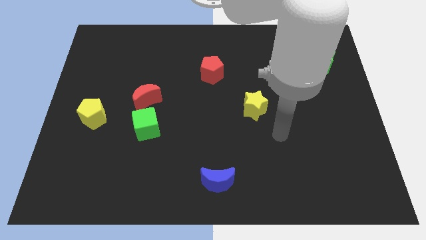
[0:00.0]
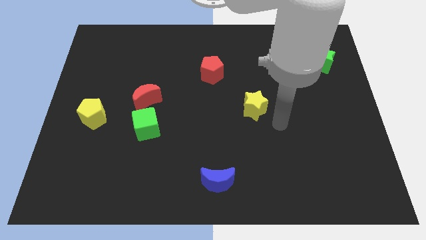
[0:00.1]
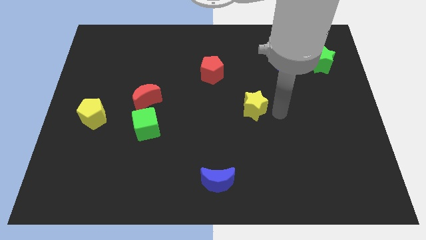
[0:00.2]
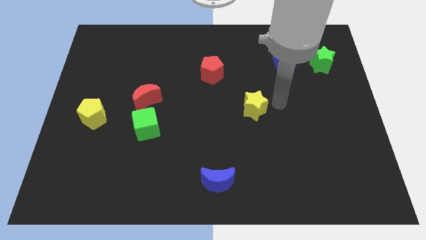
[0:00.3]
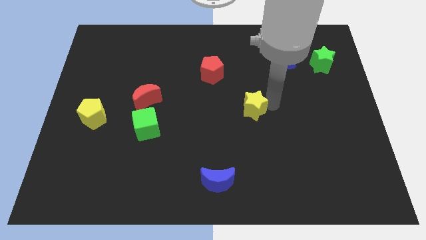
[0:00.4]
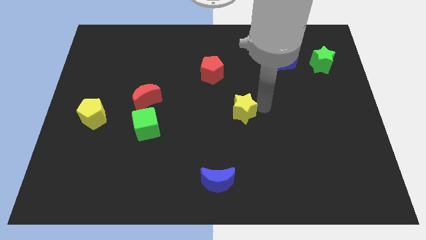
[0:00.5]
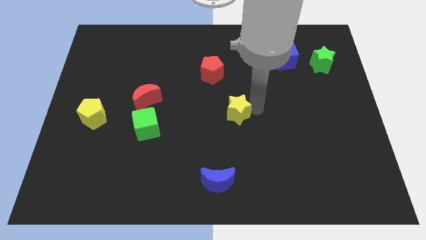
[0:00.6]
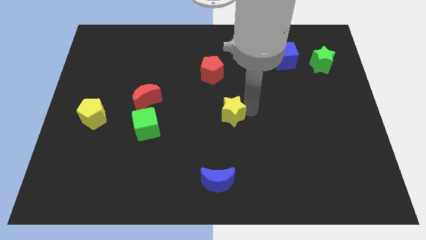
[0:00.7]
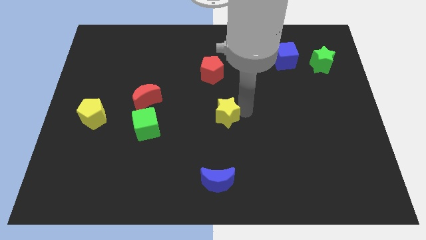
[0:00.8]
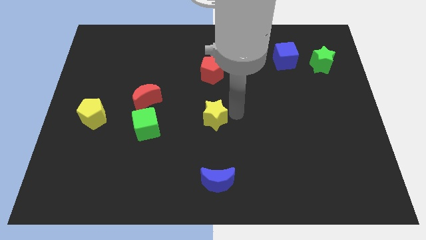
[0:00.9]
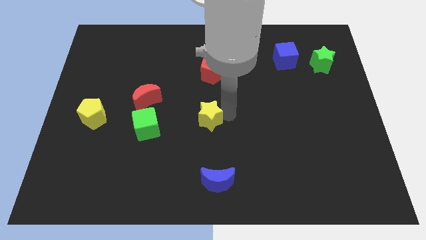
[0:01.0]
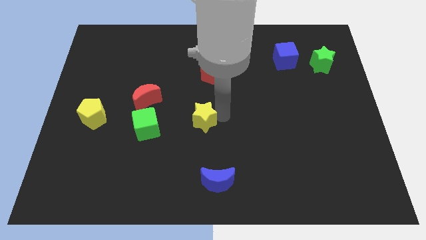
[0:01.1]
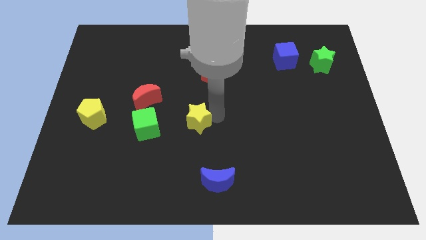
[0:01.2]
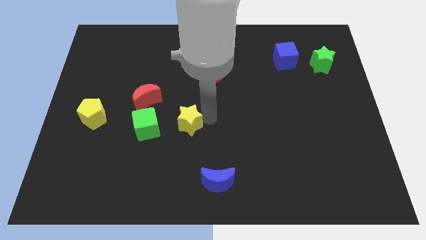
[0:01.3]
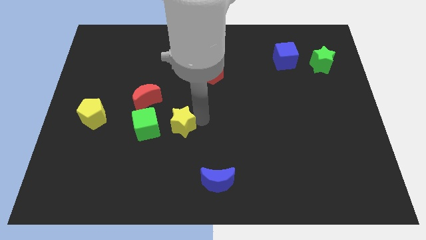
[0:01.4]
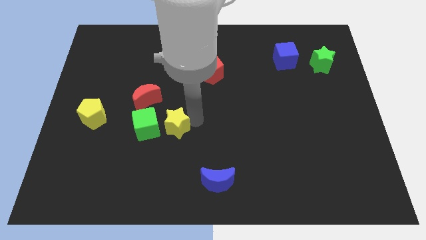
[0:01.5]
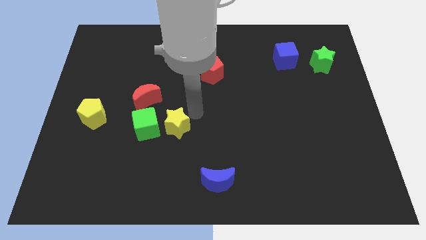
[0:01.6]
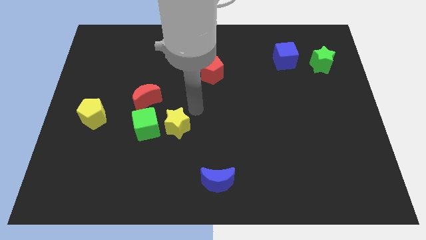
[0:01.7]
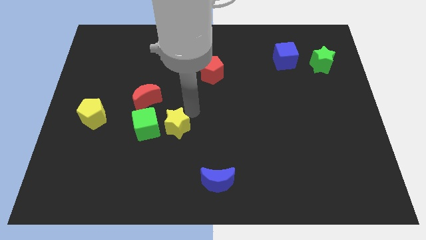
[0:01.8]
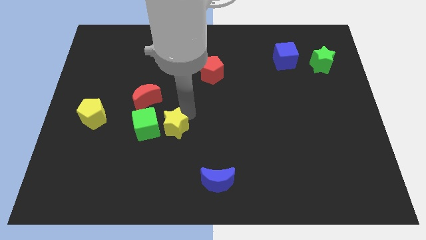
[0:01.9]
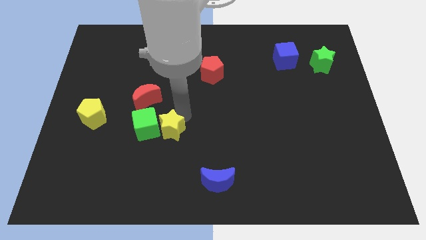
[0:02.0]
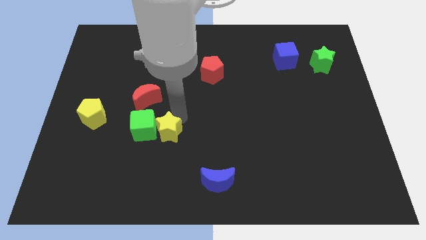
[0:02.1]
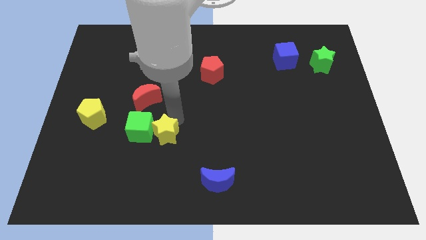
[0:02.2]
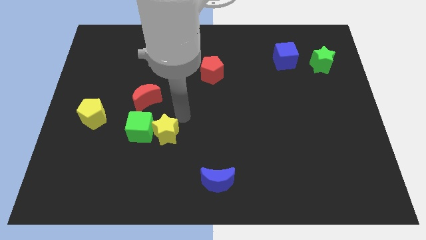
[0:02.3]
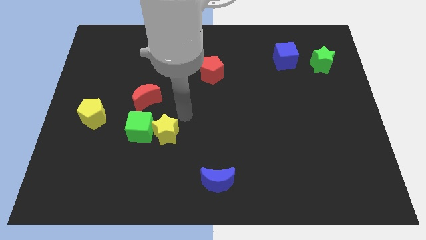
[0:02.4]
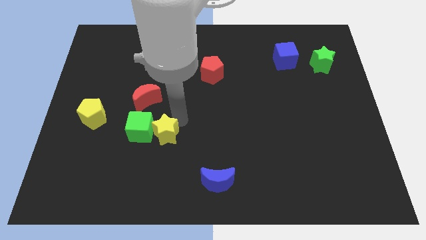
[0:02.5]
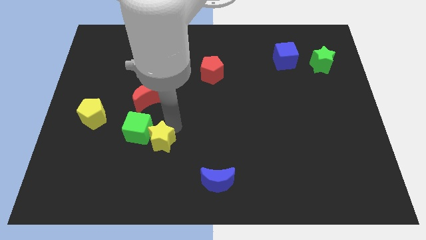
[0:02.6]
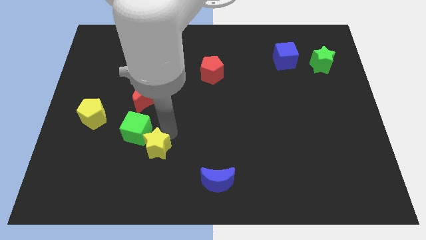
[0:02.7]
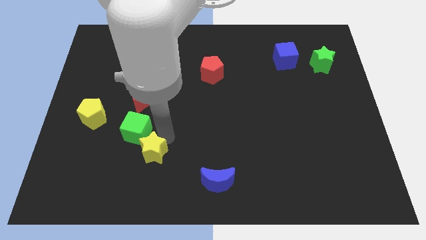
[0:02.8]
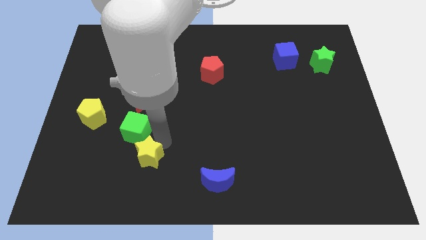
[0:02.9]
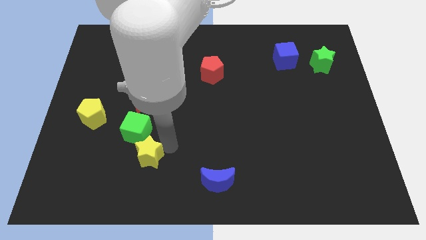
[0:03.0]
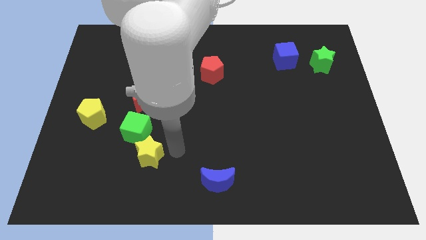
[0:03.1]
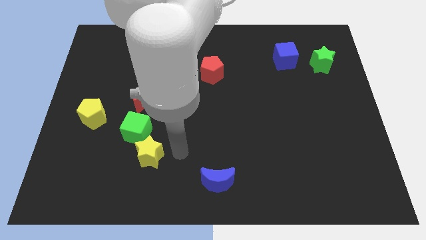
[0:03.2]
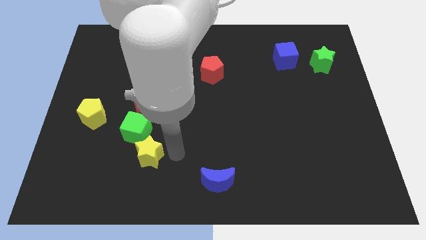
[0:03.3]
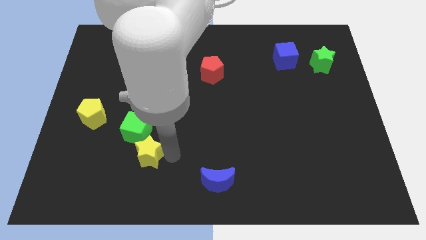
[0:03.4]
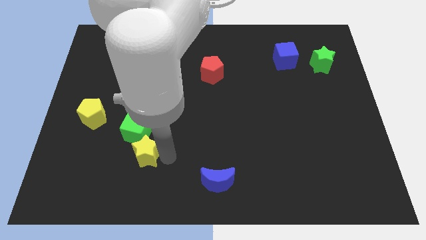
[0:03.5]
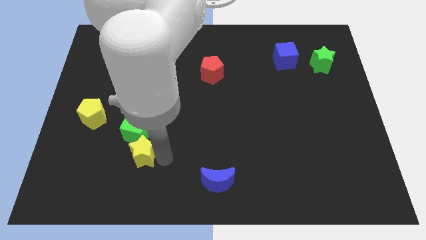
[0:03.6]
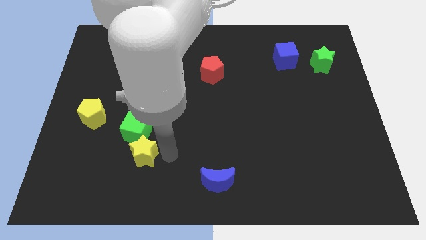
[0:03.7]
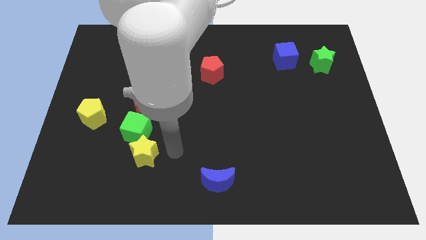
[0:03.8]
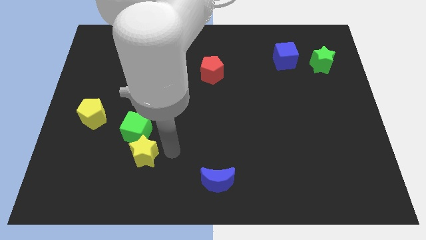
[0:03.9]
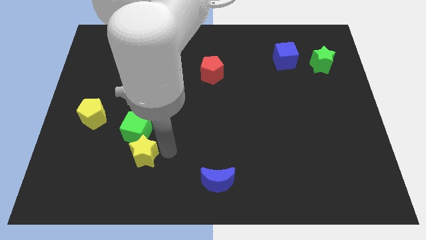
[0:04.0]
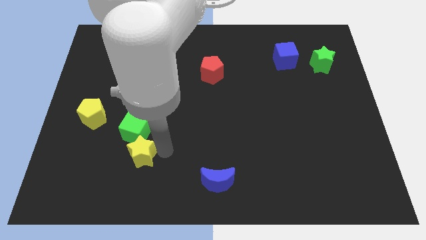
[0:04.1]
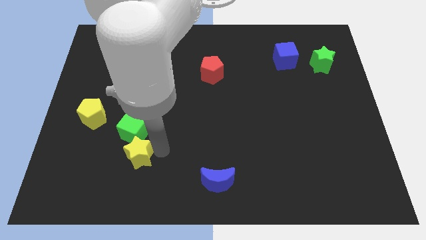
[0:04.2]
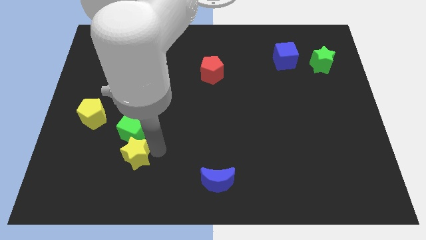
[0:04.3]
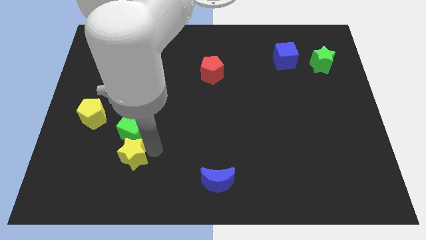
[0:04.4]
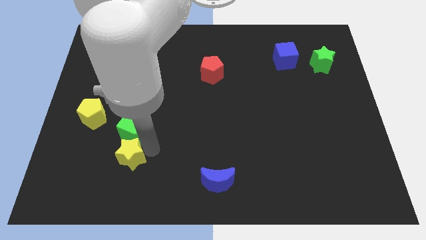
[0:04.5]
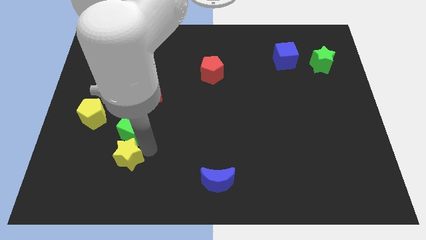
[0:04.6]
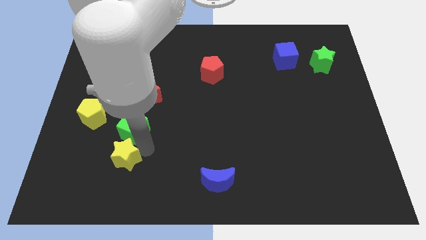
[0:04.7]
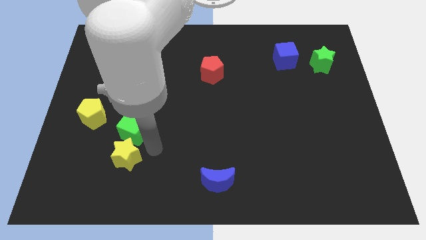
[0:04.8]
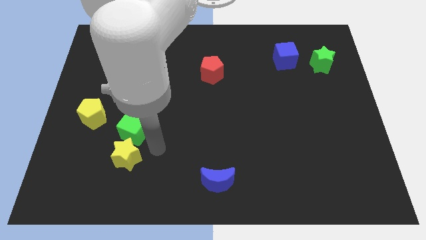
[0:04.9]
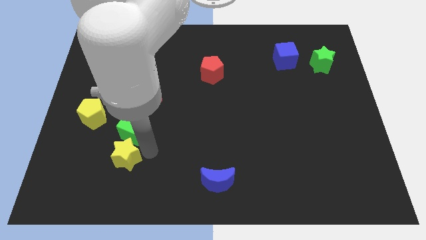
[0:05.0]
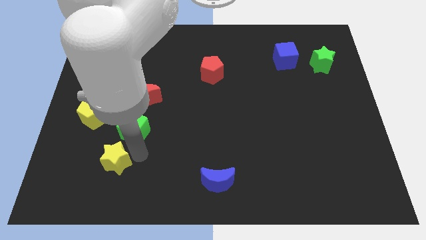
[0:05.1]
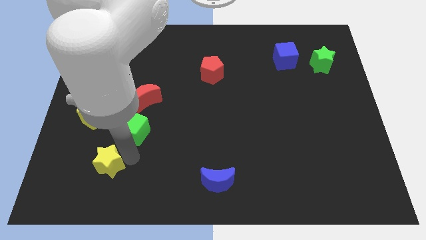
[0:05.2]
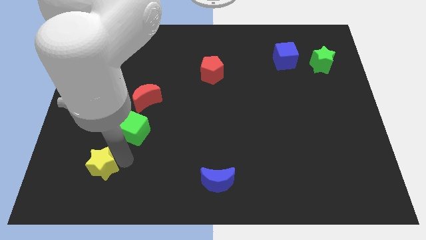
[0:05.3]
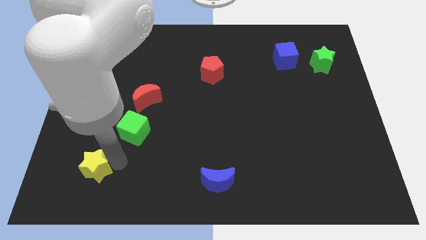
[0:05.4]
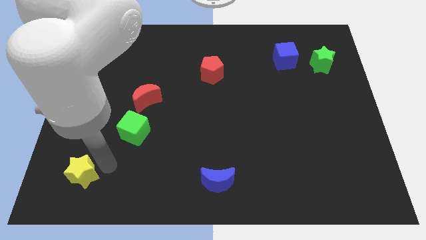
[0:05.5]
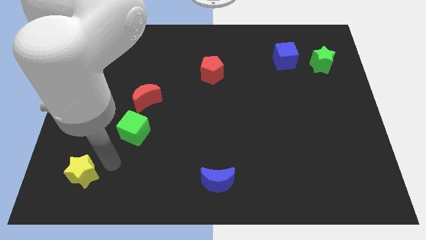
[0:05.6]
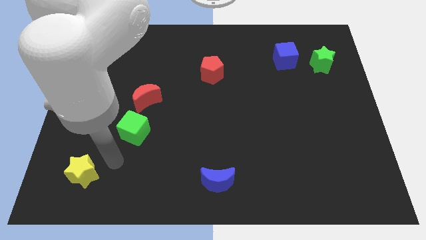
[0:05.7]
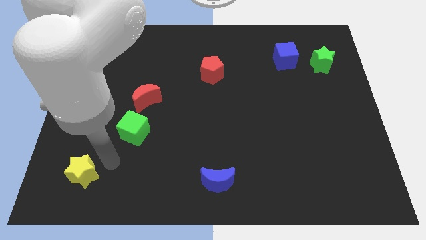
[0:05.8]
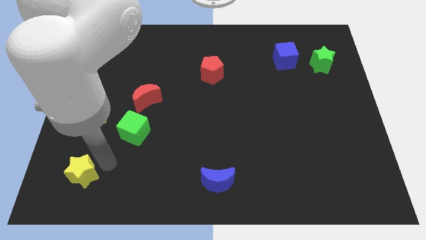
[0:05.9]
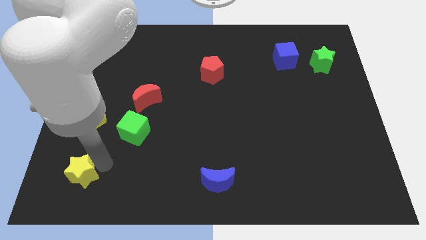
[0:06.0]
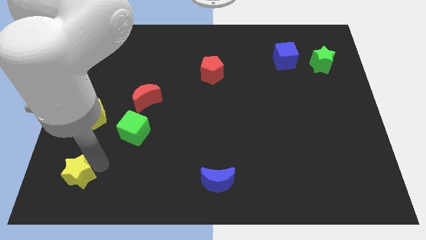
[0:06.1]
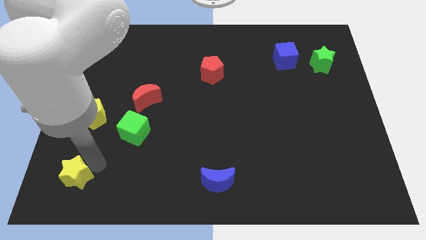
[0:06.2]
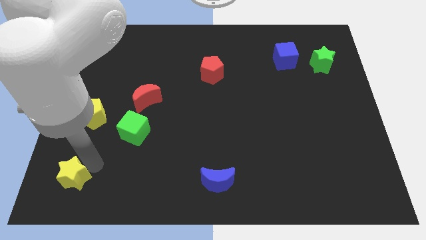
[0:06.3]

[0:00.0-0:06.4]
slide the yellow star to the bottom left corner
